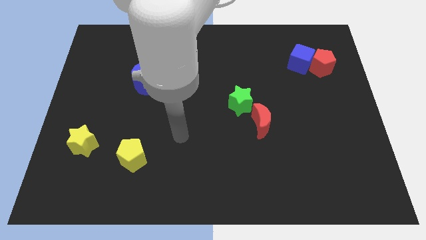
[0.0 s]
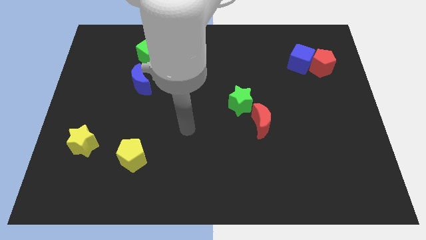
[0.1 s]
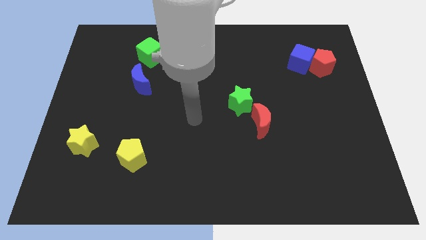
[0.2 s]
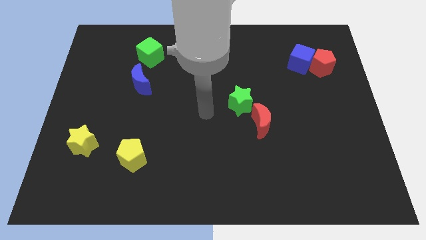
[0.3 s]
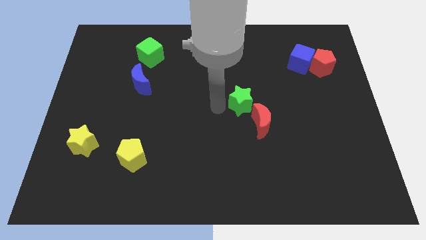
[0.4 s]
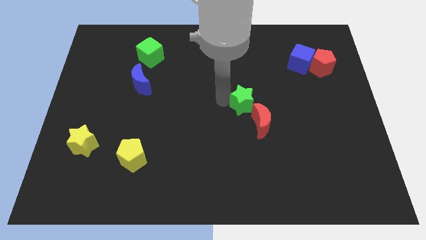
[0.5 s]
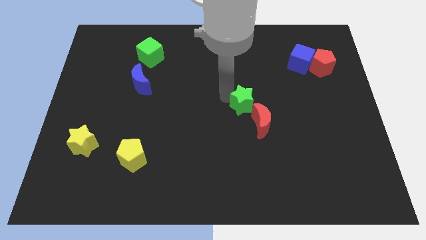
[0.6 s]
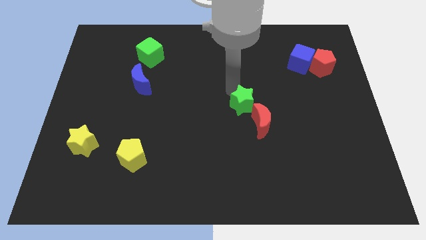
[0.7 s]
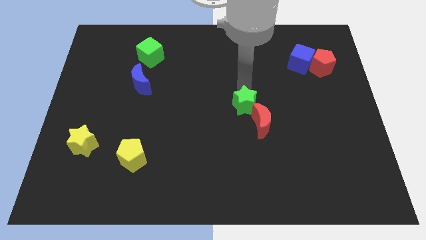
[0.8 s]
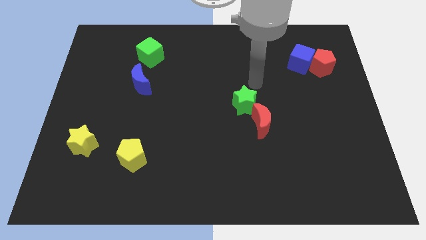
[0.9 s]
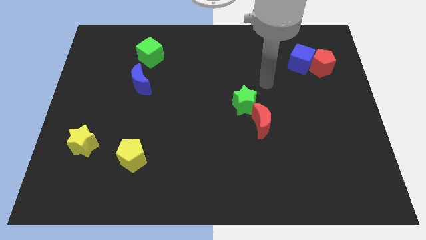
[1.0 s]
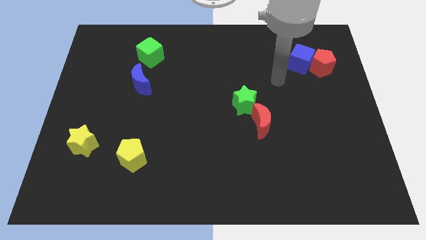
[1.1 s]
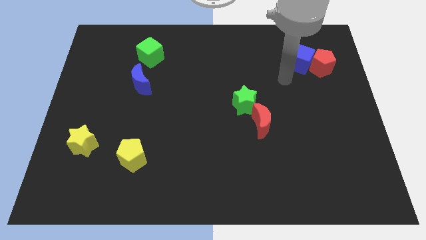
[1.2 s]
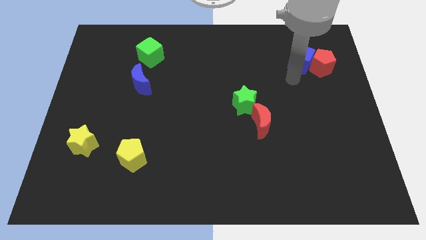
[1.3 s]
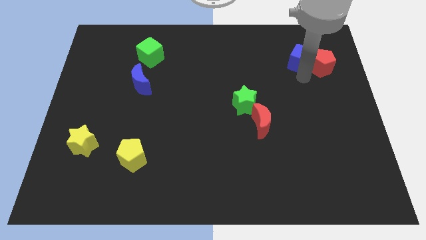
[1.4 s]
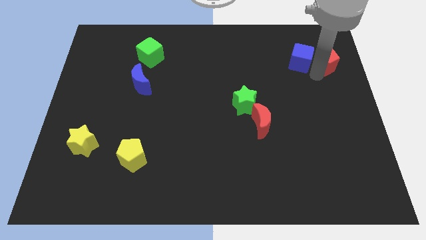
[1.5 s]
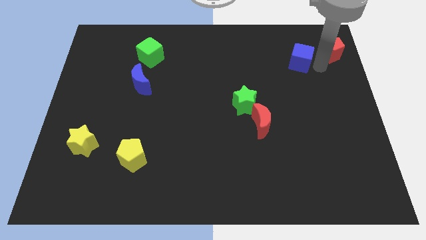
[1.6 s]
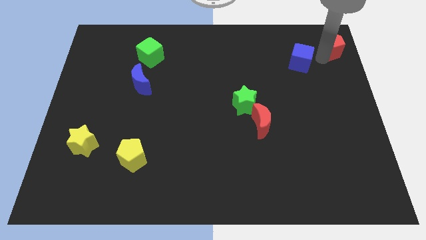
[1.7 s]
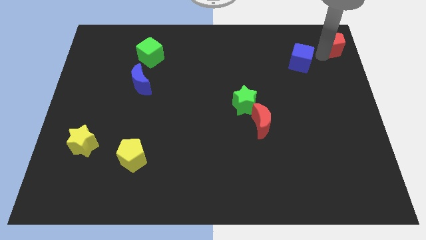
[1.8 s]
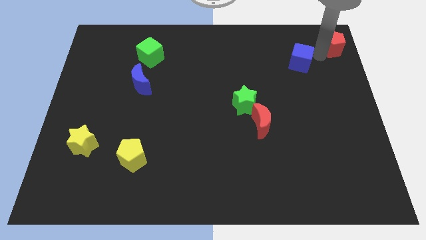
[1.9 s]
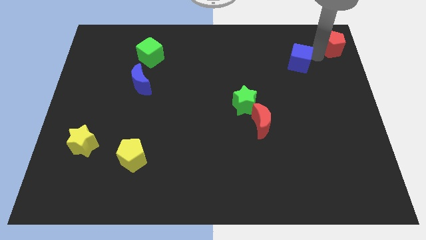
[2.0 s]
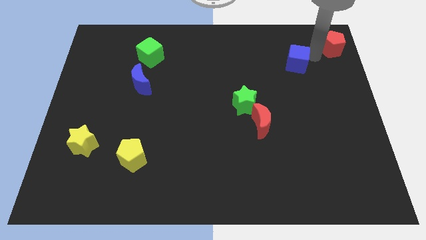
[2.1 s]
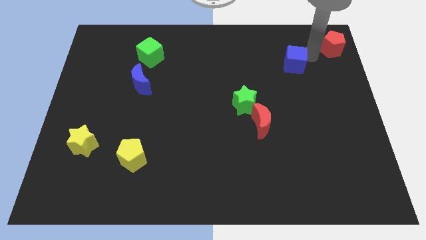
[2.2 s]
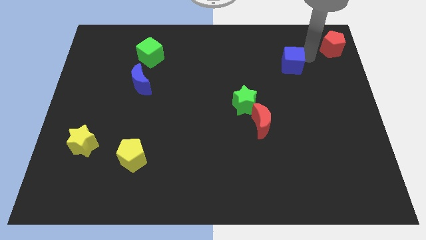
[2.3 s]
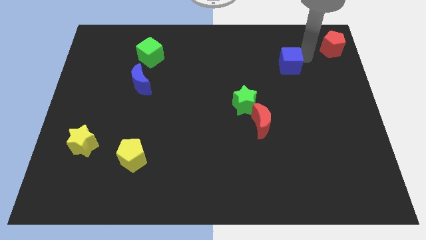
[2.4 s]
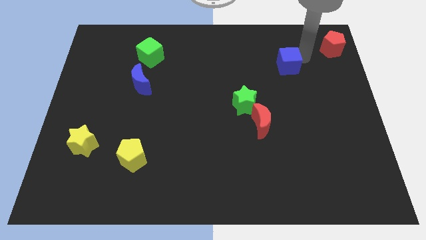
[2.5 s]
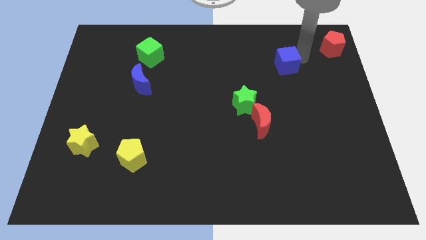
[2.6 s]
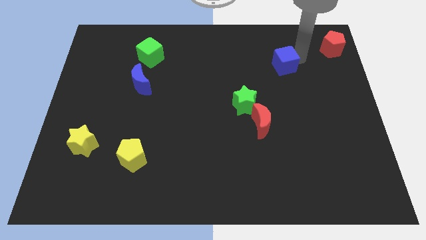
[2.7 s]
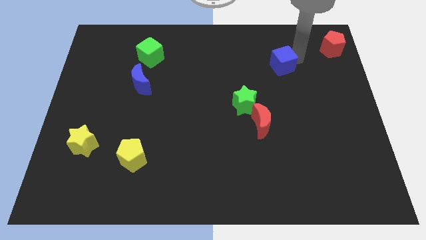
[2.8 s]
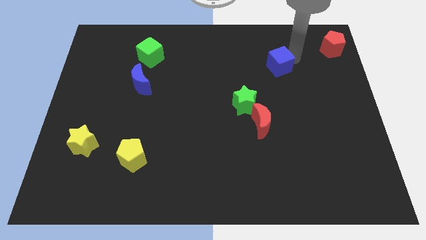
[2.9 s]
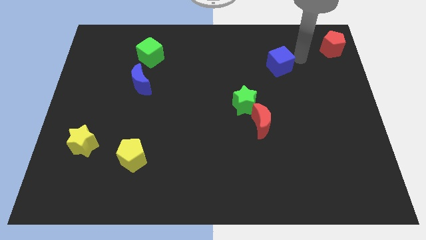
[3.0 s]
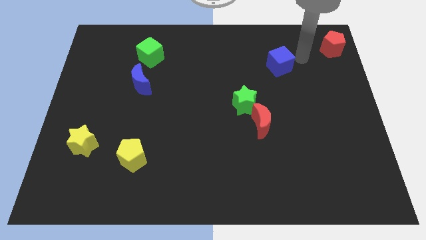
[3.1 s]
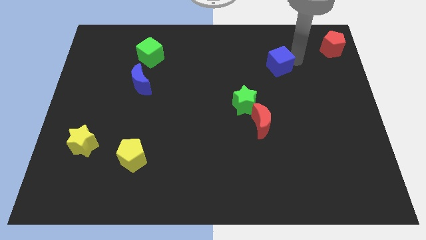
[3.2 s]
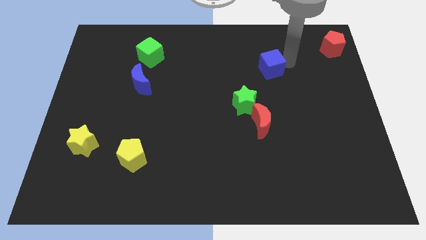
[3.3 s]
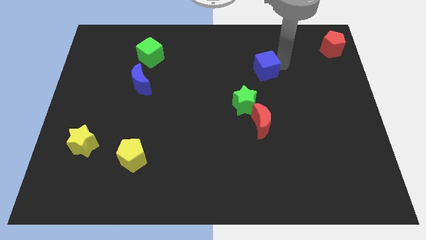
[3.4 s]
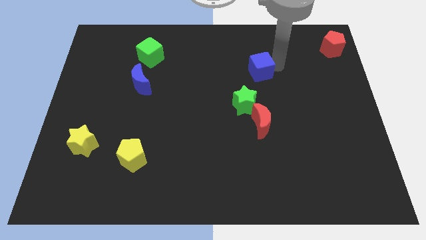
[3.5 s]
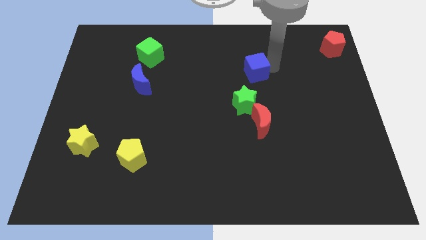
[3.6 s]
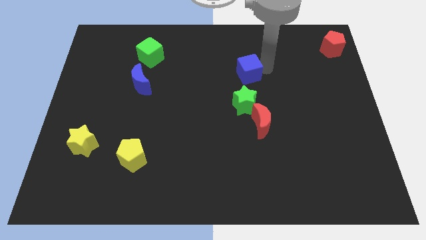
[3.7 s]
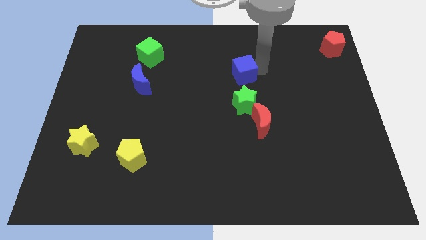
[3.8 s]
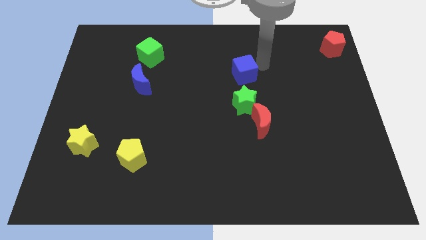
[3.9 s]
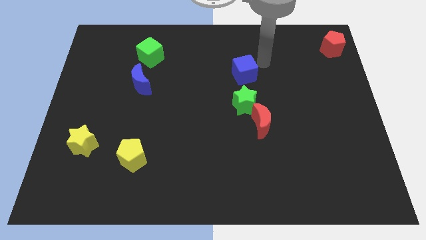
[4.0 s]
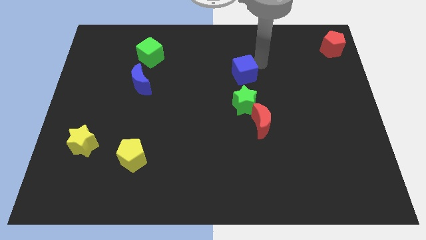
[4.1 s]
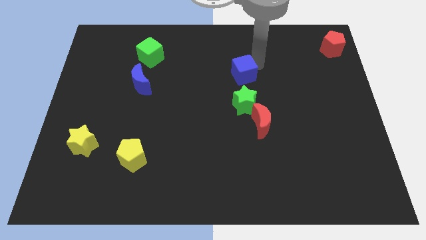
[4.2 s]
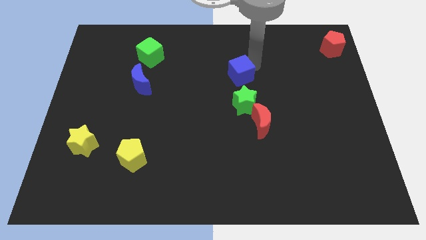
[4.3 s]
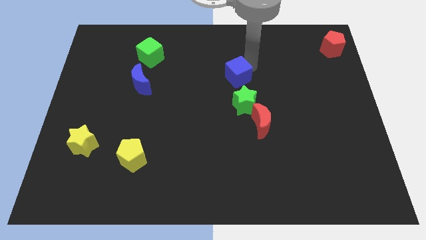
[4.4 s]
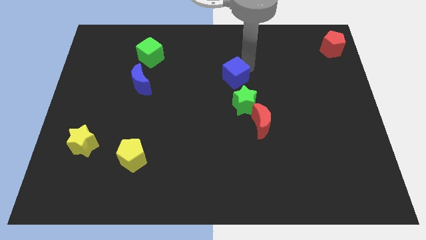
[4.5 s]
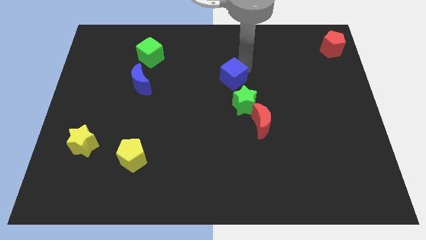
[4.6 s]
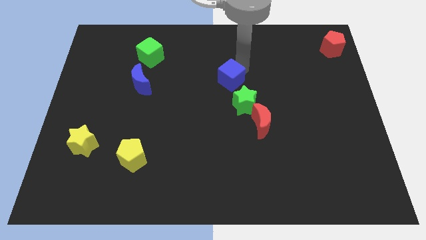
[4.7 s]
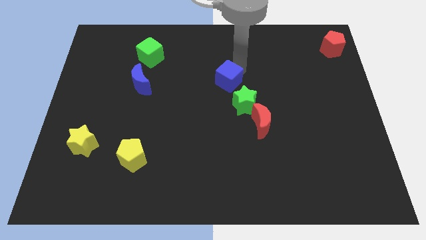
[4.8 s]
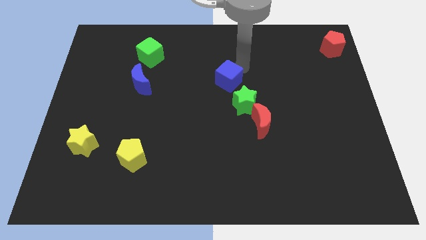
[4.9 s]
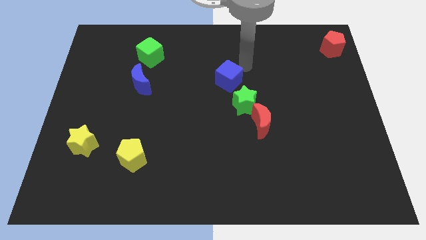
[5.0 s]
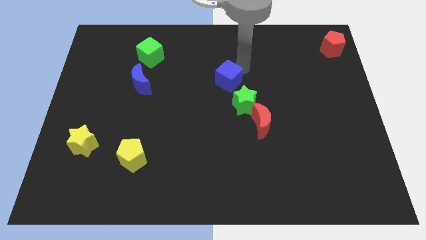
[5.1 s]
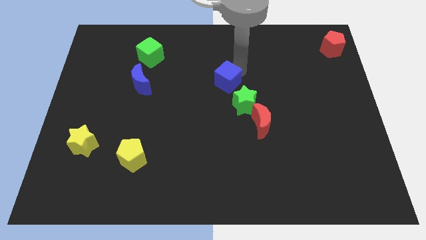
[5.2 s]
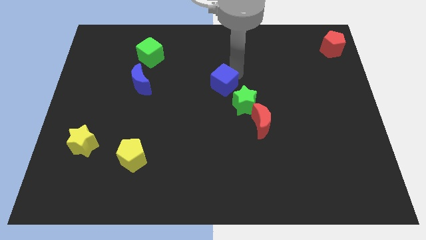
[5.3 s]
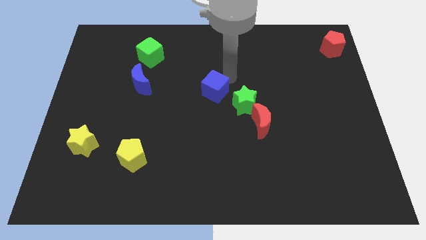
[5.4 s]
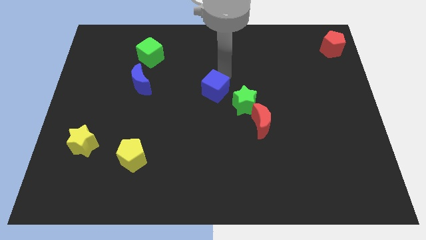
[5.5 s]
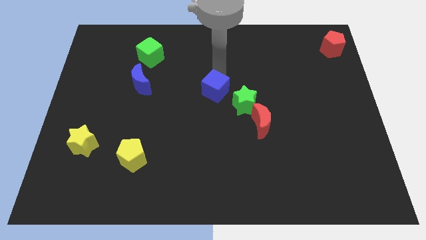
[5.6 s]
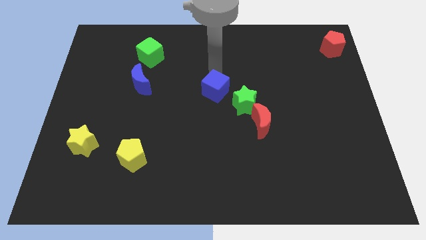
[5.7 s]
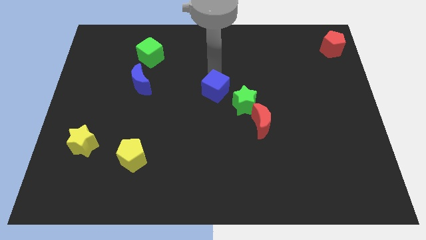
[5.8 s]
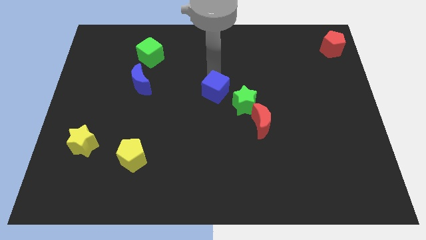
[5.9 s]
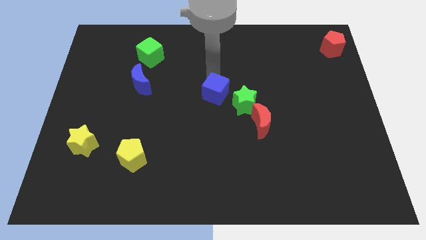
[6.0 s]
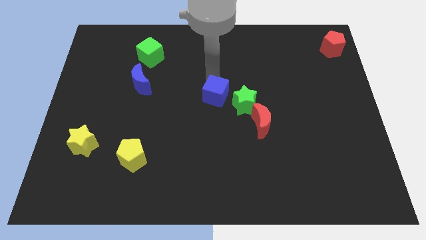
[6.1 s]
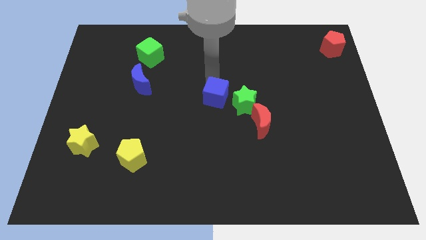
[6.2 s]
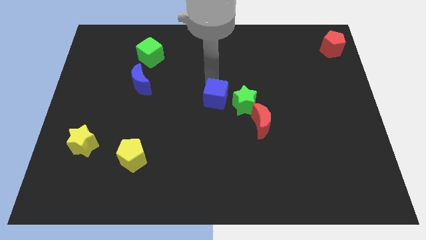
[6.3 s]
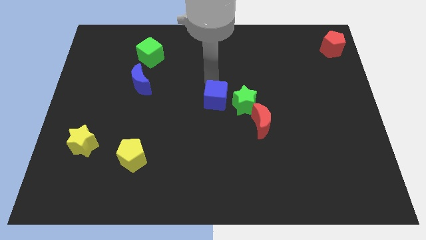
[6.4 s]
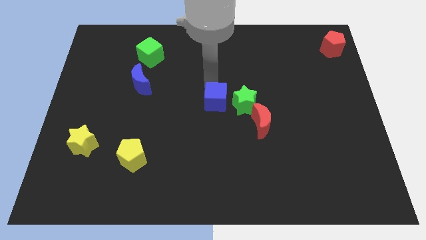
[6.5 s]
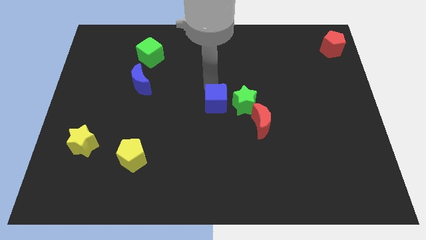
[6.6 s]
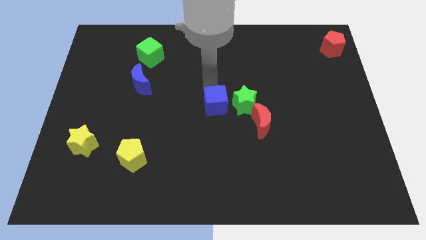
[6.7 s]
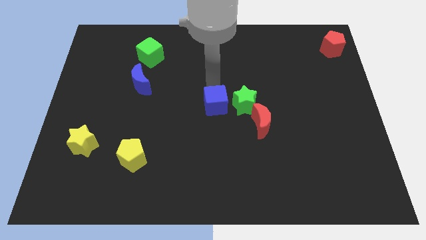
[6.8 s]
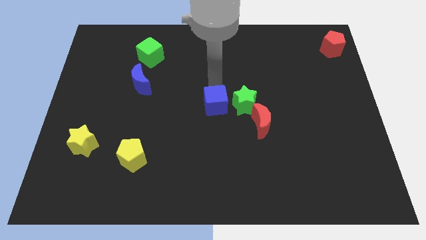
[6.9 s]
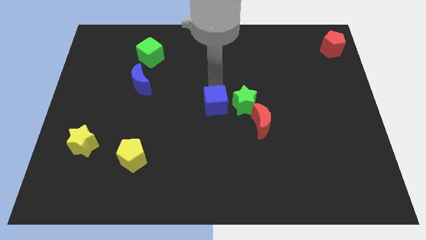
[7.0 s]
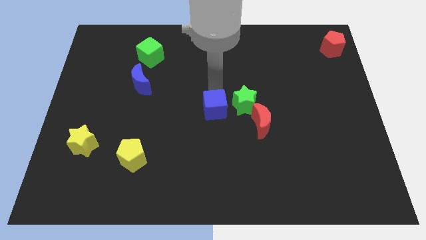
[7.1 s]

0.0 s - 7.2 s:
slide the blue cube left of the red moon
